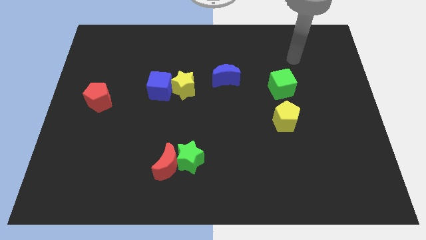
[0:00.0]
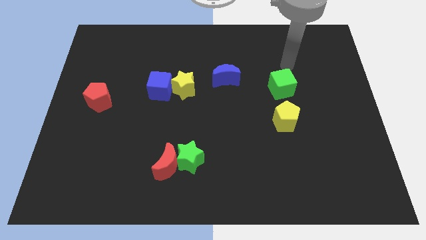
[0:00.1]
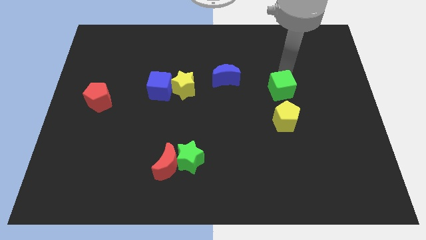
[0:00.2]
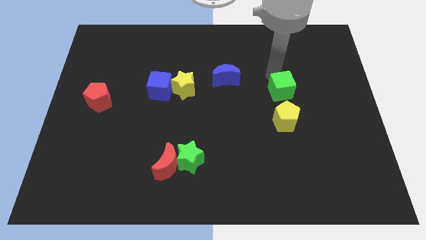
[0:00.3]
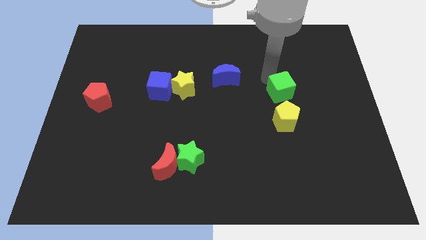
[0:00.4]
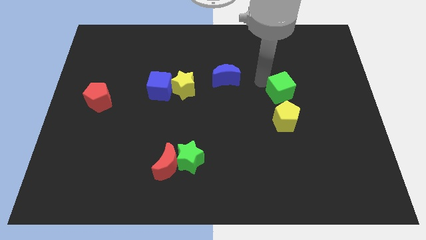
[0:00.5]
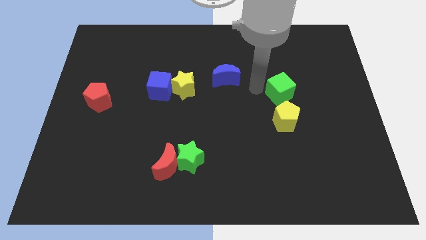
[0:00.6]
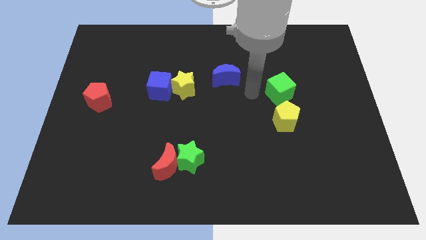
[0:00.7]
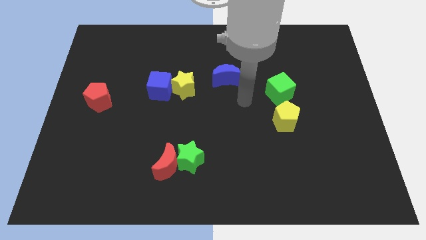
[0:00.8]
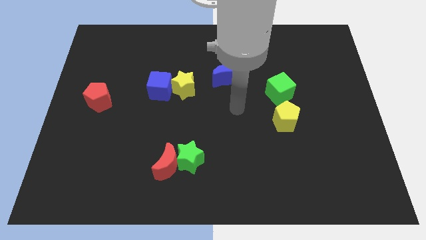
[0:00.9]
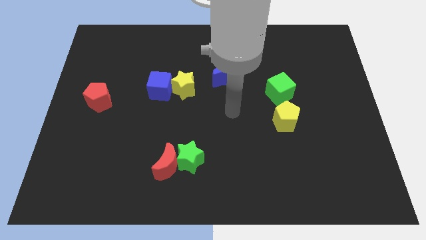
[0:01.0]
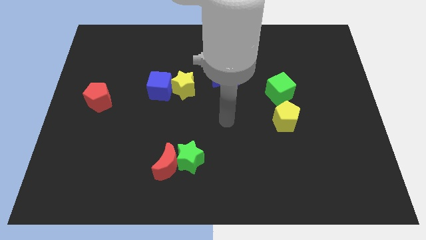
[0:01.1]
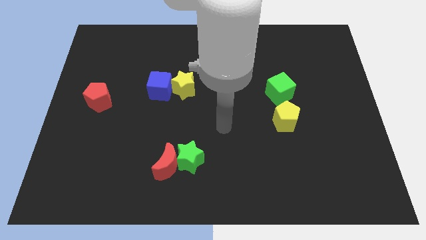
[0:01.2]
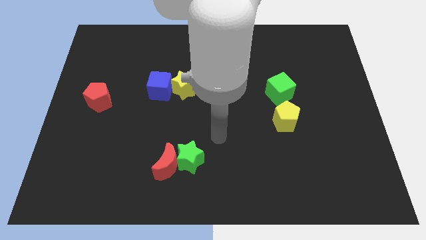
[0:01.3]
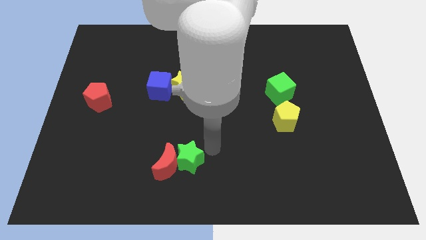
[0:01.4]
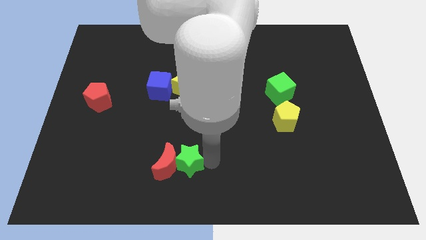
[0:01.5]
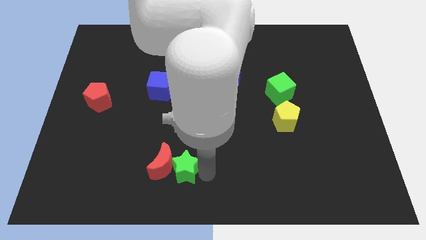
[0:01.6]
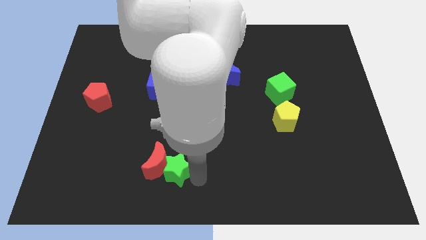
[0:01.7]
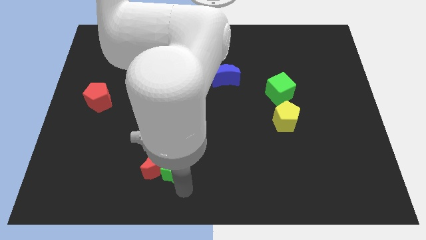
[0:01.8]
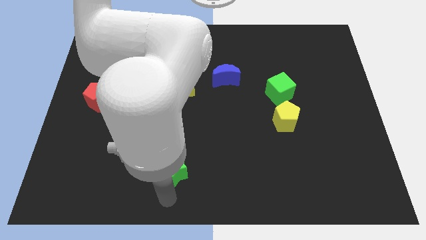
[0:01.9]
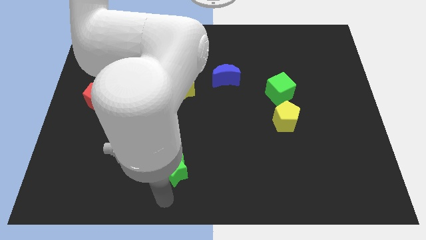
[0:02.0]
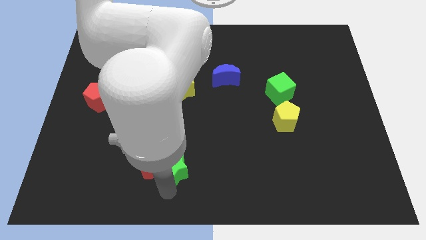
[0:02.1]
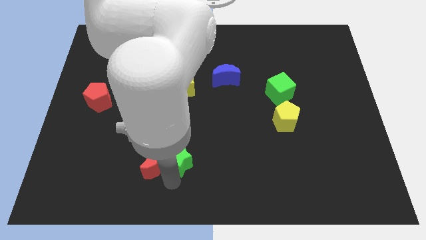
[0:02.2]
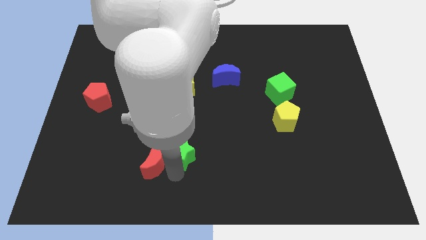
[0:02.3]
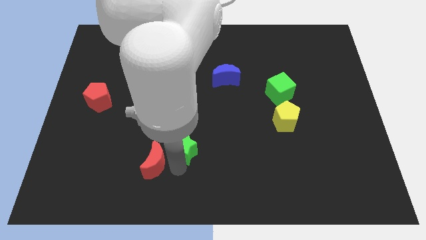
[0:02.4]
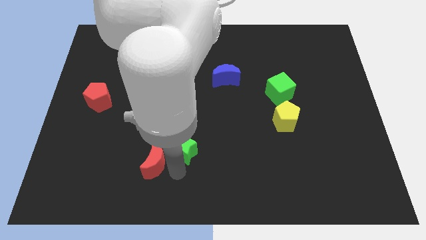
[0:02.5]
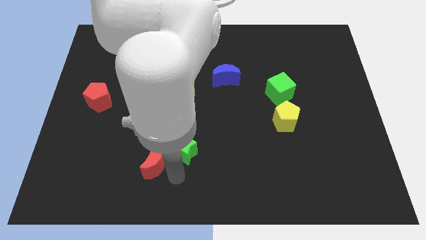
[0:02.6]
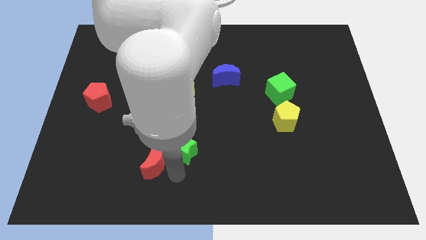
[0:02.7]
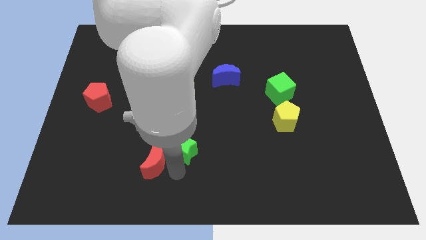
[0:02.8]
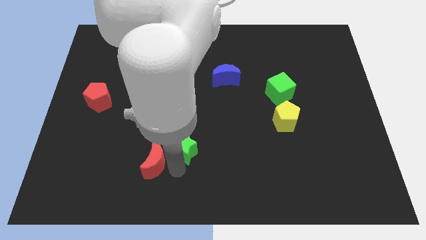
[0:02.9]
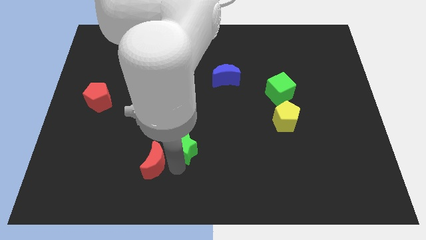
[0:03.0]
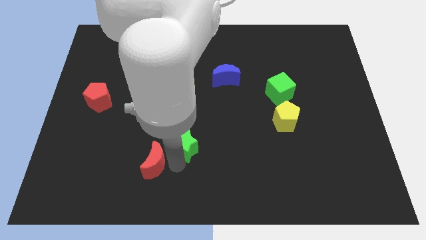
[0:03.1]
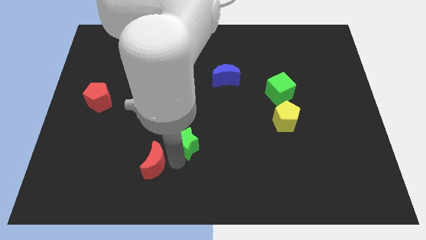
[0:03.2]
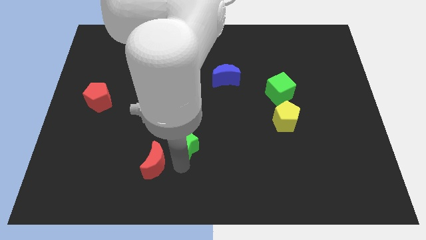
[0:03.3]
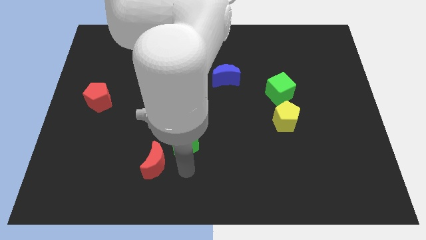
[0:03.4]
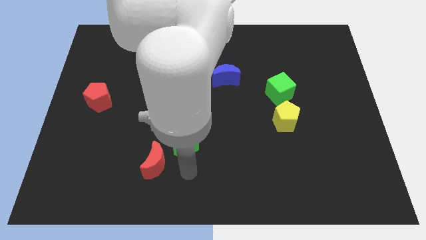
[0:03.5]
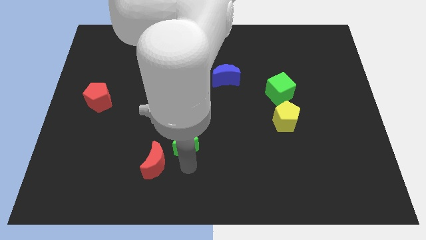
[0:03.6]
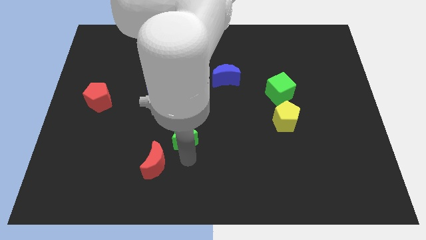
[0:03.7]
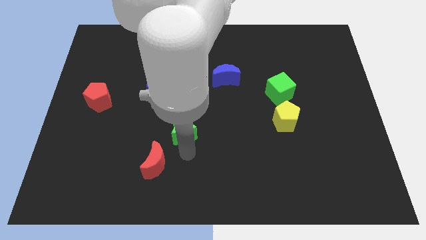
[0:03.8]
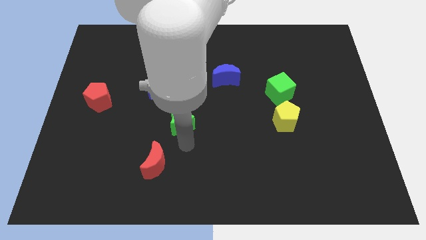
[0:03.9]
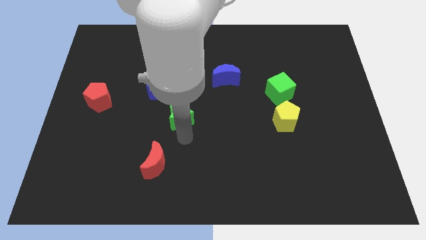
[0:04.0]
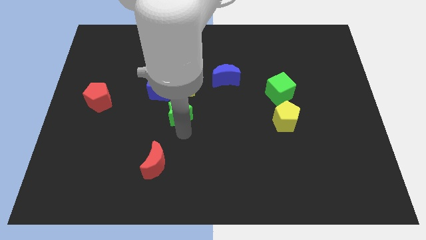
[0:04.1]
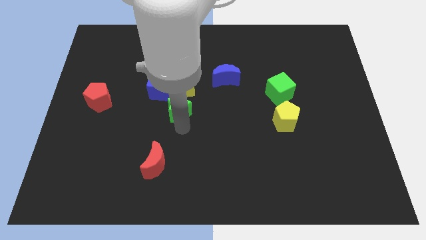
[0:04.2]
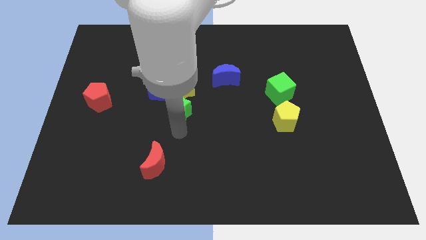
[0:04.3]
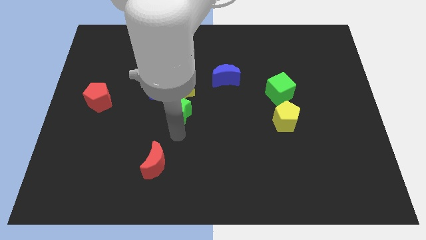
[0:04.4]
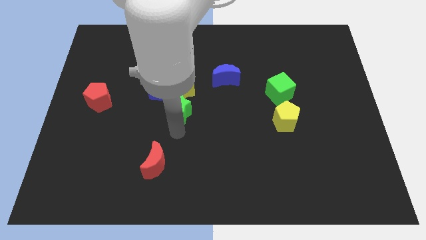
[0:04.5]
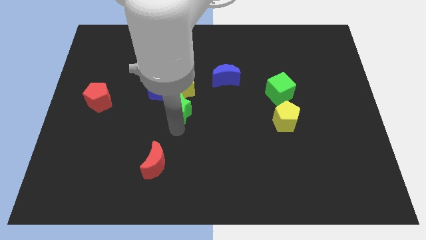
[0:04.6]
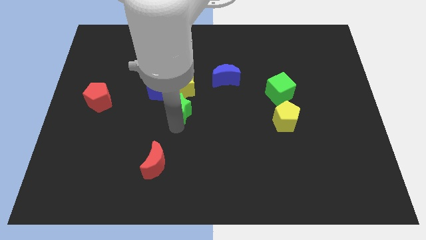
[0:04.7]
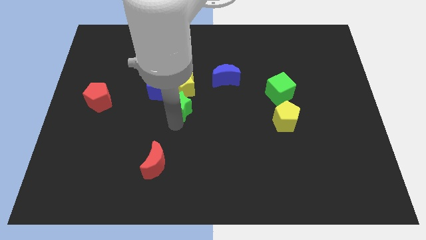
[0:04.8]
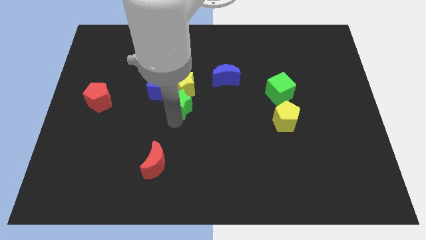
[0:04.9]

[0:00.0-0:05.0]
put the green star towards the yellow star

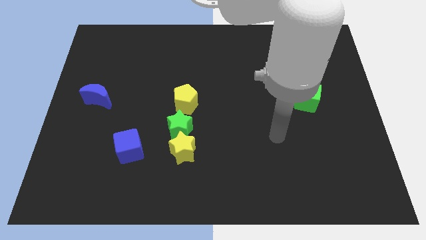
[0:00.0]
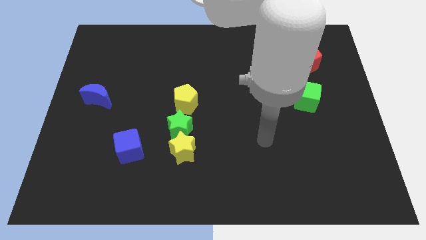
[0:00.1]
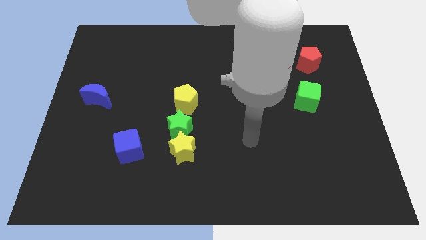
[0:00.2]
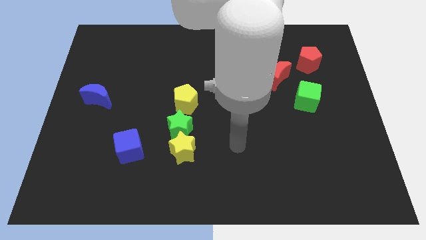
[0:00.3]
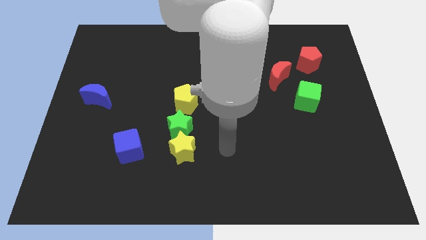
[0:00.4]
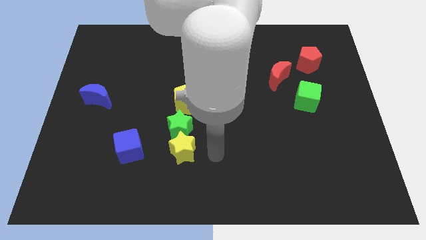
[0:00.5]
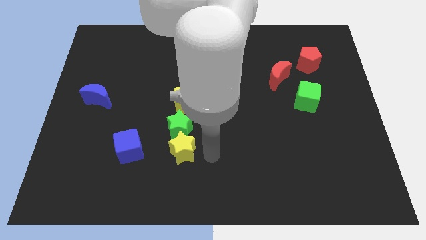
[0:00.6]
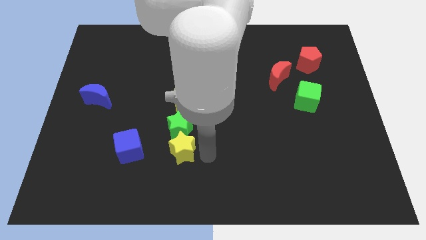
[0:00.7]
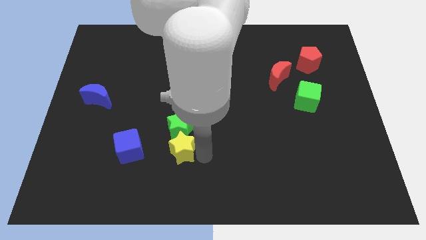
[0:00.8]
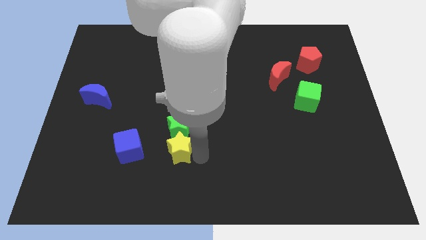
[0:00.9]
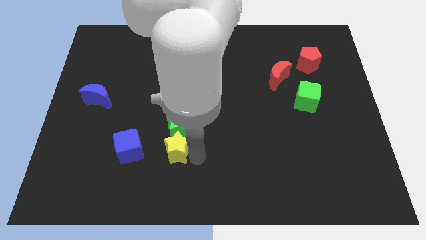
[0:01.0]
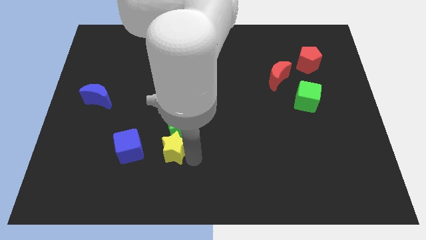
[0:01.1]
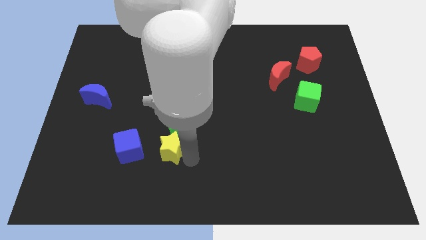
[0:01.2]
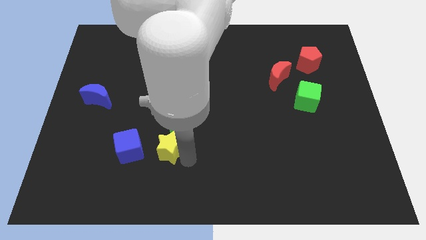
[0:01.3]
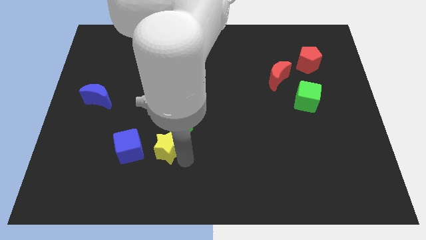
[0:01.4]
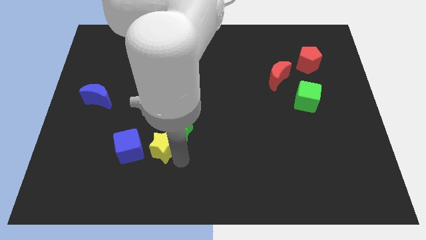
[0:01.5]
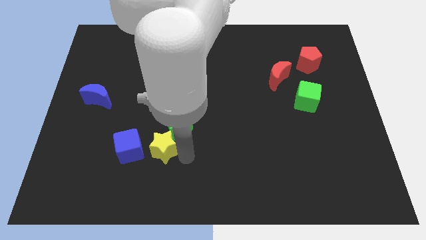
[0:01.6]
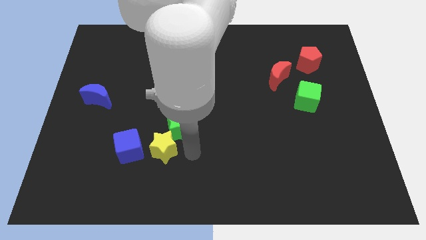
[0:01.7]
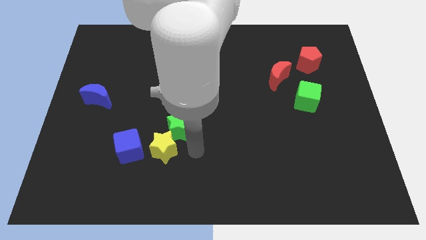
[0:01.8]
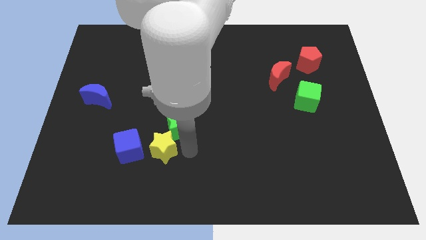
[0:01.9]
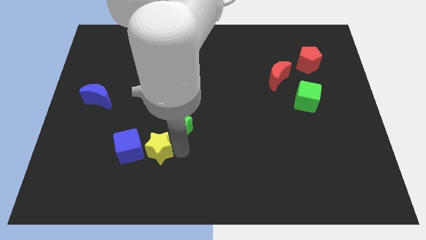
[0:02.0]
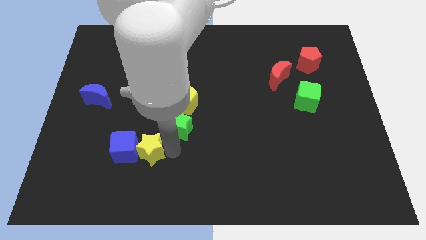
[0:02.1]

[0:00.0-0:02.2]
move the yellow star towards the blue cube
